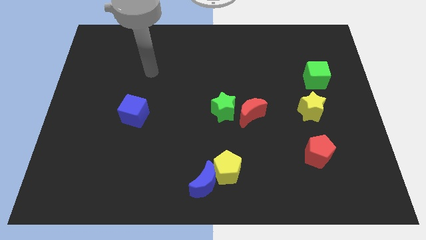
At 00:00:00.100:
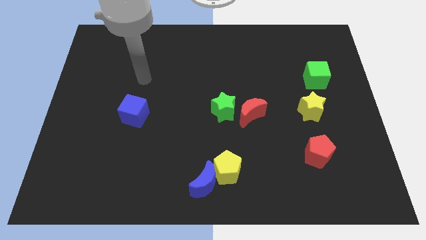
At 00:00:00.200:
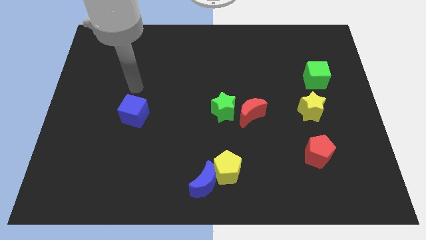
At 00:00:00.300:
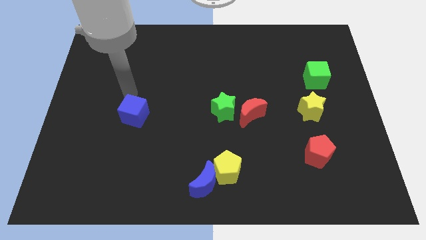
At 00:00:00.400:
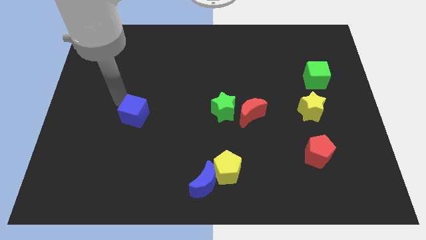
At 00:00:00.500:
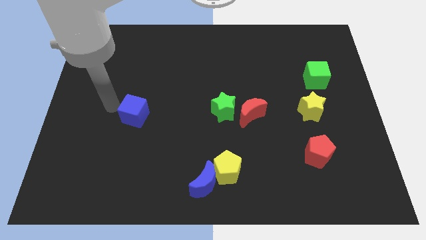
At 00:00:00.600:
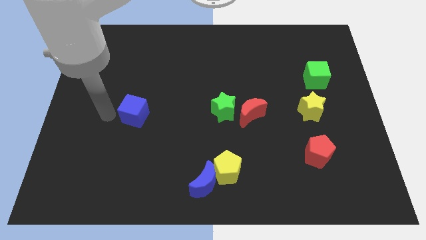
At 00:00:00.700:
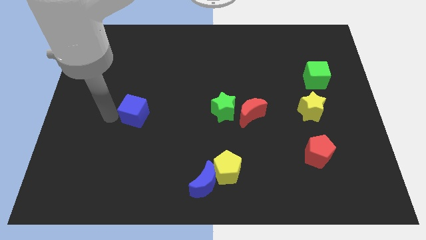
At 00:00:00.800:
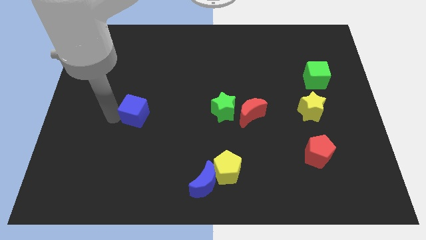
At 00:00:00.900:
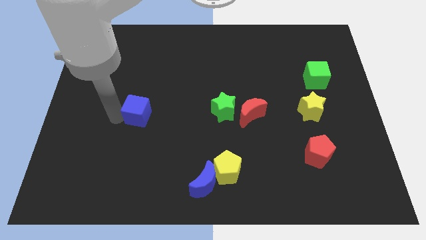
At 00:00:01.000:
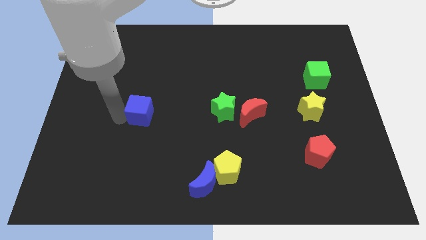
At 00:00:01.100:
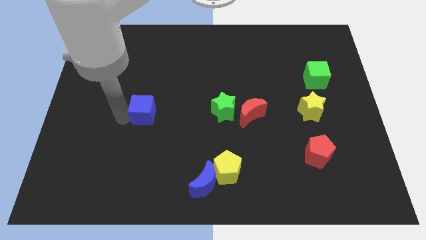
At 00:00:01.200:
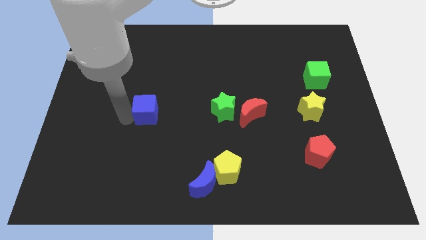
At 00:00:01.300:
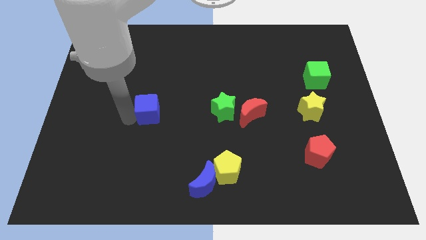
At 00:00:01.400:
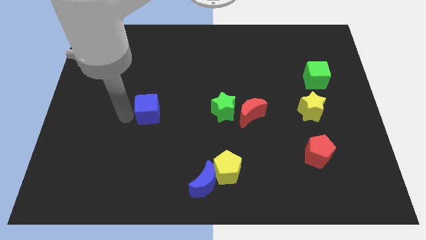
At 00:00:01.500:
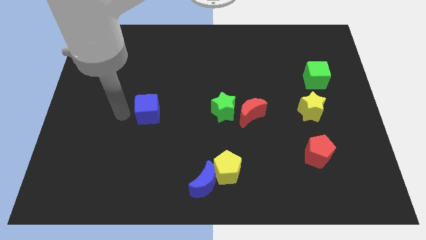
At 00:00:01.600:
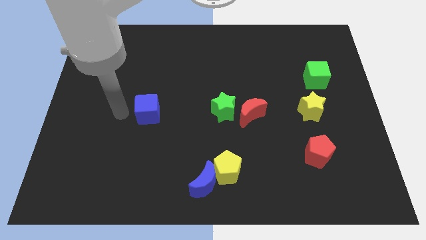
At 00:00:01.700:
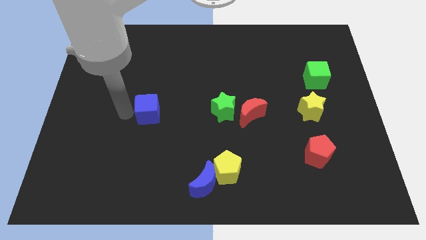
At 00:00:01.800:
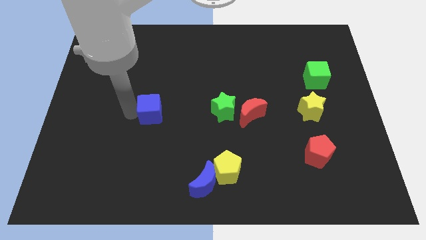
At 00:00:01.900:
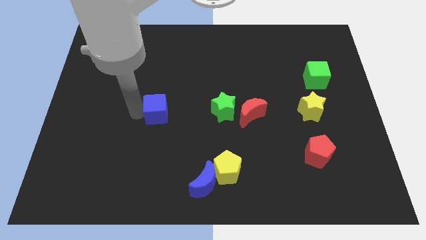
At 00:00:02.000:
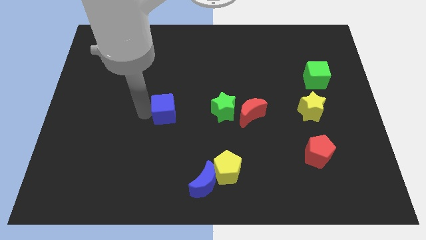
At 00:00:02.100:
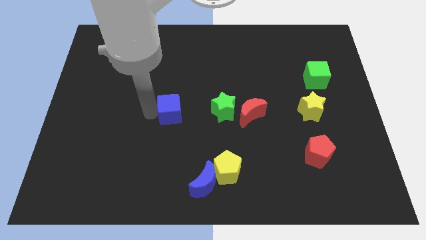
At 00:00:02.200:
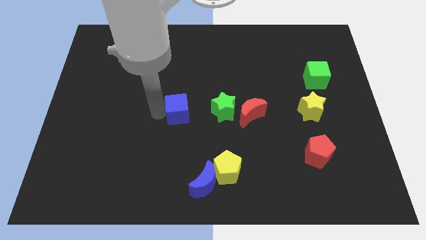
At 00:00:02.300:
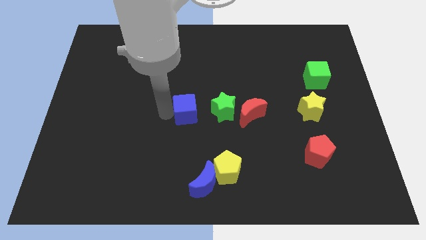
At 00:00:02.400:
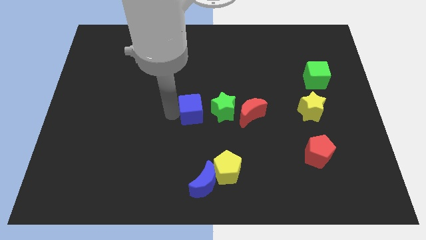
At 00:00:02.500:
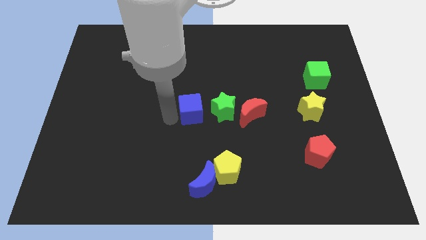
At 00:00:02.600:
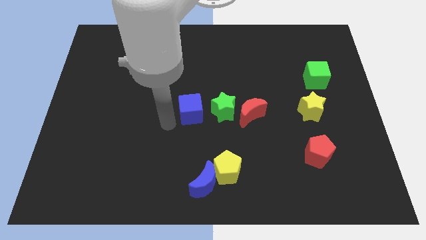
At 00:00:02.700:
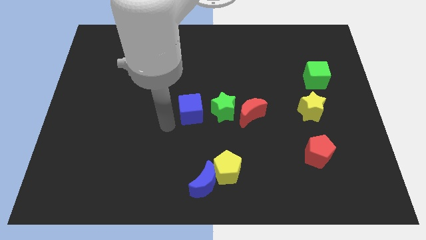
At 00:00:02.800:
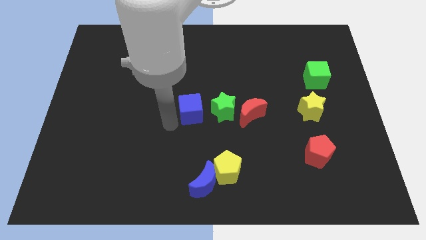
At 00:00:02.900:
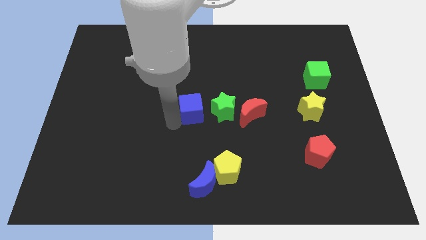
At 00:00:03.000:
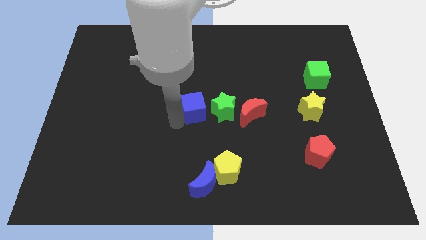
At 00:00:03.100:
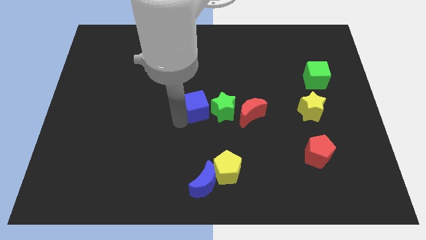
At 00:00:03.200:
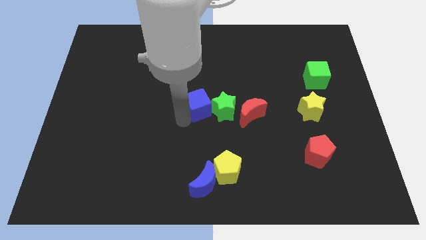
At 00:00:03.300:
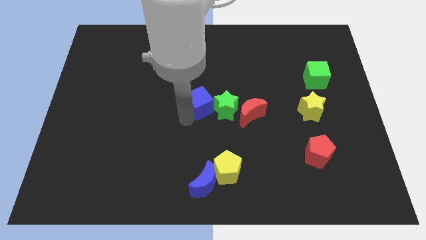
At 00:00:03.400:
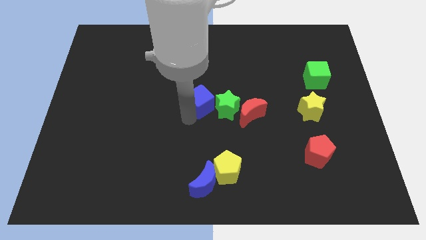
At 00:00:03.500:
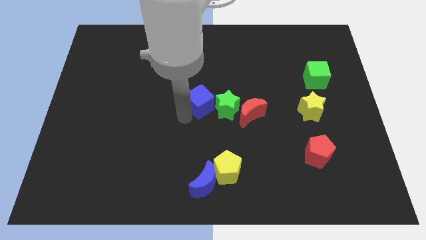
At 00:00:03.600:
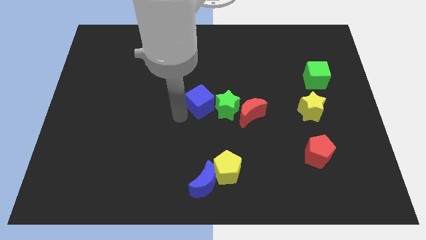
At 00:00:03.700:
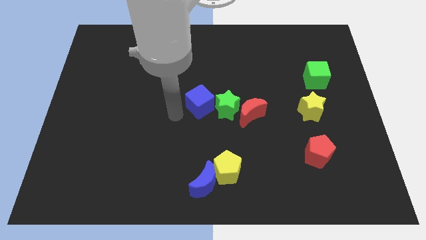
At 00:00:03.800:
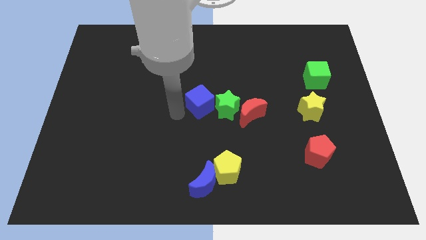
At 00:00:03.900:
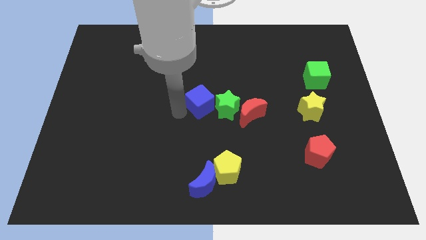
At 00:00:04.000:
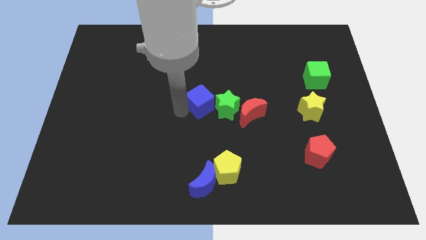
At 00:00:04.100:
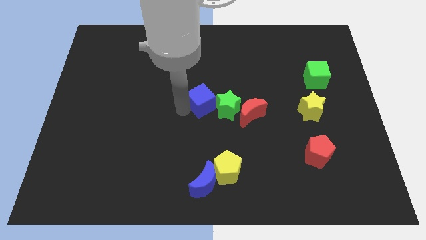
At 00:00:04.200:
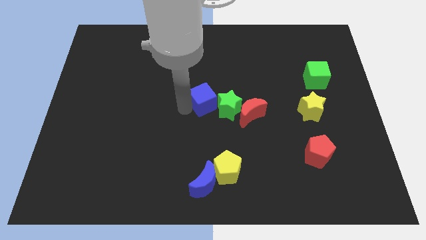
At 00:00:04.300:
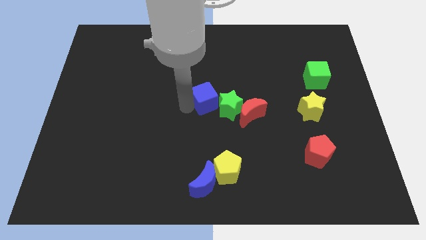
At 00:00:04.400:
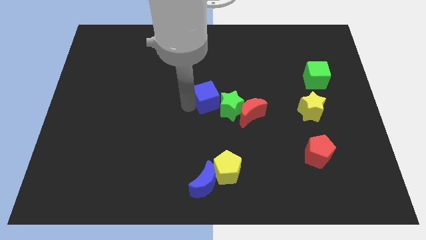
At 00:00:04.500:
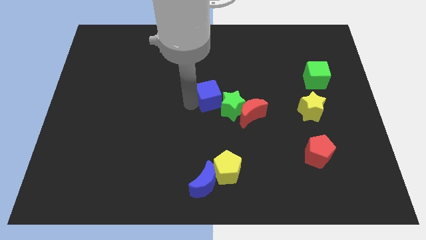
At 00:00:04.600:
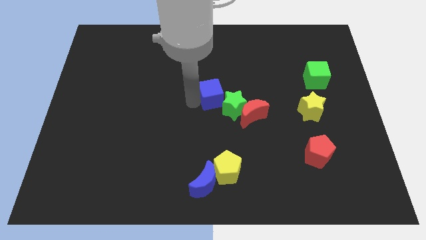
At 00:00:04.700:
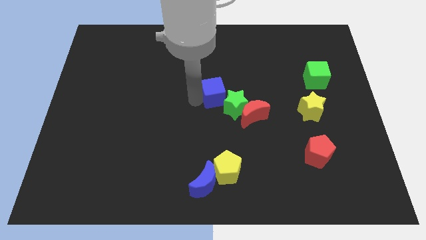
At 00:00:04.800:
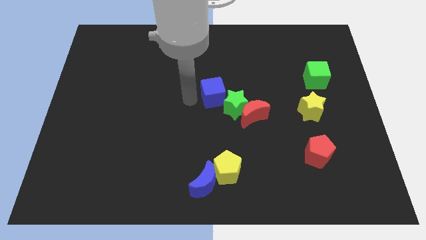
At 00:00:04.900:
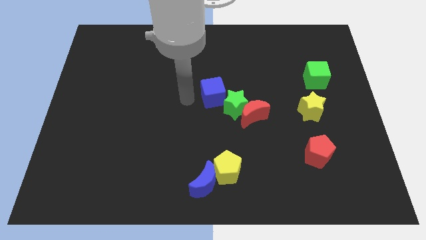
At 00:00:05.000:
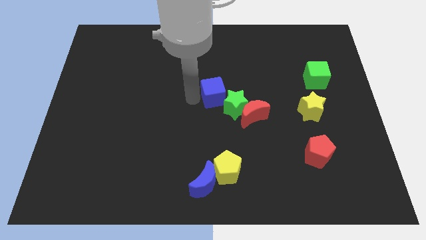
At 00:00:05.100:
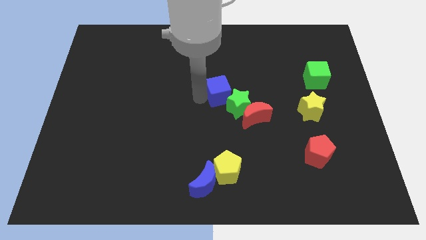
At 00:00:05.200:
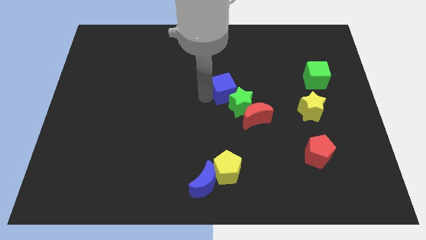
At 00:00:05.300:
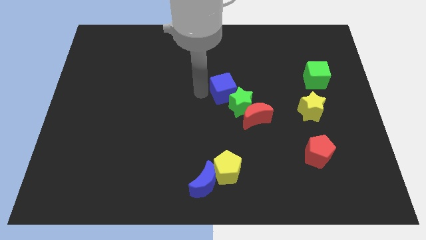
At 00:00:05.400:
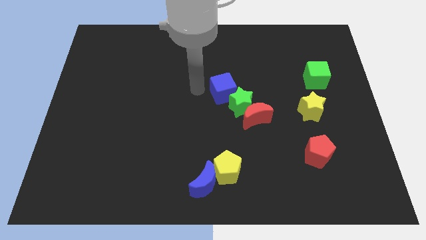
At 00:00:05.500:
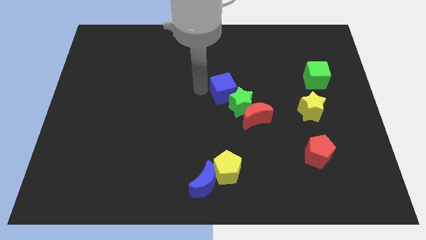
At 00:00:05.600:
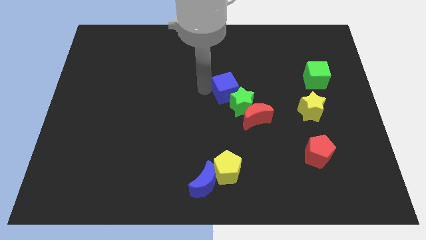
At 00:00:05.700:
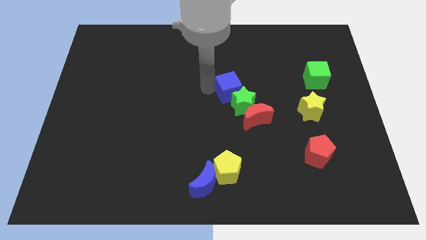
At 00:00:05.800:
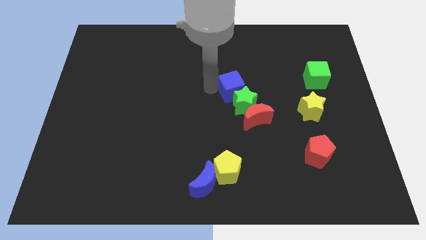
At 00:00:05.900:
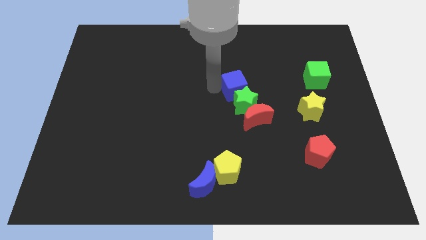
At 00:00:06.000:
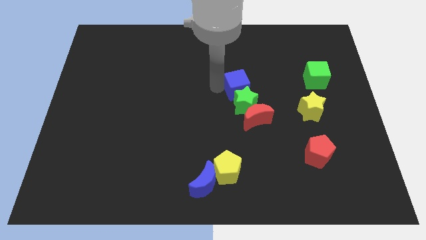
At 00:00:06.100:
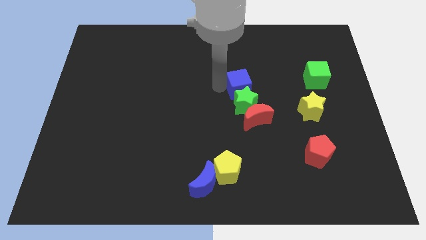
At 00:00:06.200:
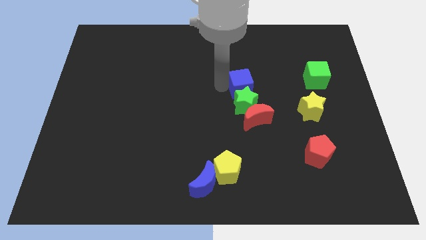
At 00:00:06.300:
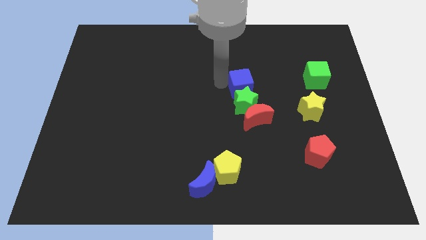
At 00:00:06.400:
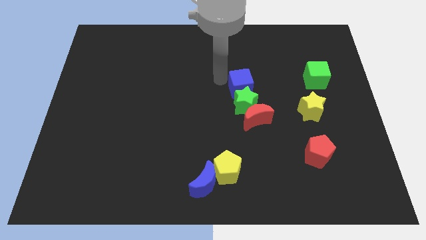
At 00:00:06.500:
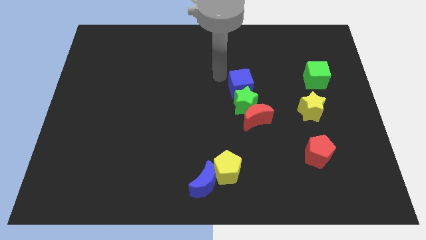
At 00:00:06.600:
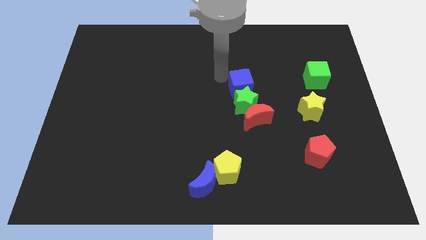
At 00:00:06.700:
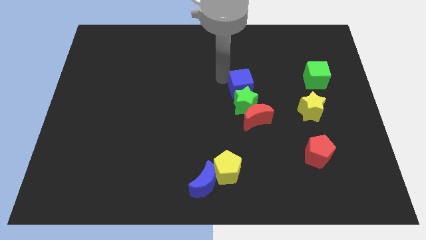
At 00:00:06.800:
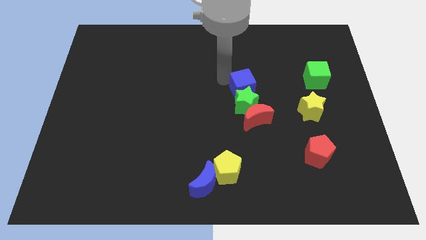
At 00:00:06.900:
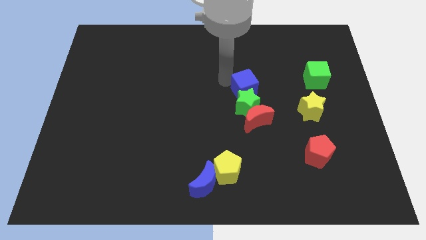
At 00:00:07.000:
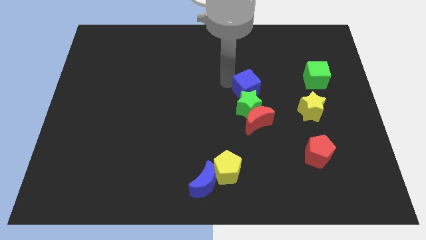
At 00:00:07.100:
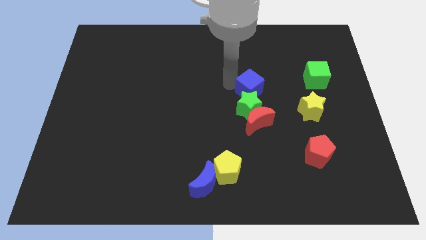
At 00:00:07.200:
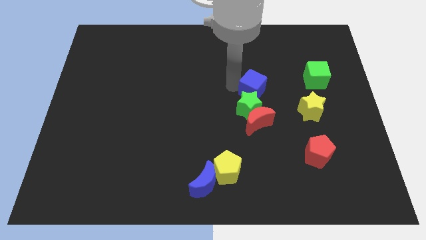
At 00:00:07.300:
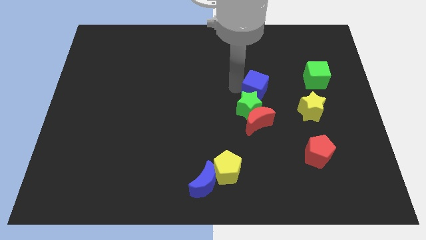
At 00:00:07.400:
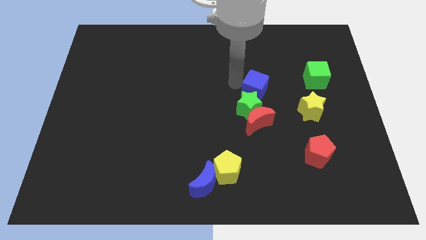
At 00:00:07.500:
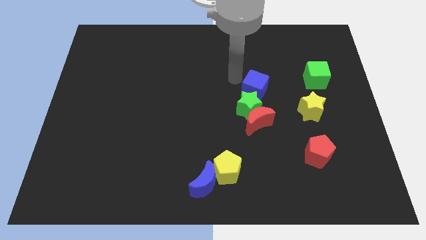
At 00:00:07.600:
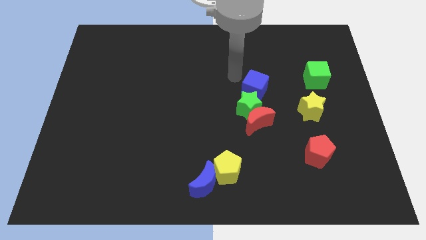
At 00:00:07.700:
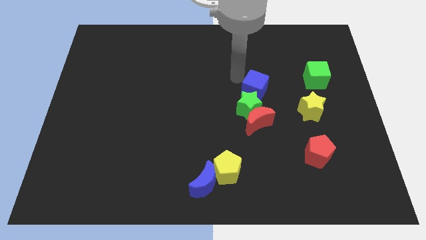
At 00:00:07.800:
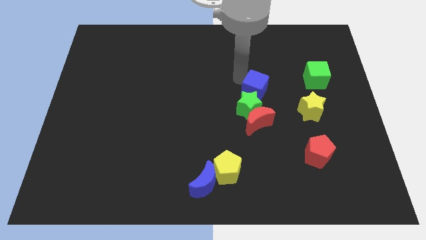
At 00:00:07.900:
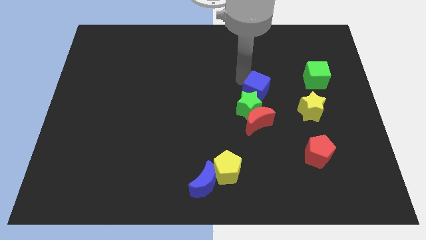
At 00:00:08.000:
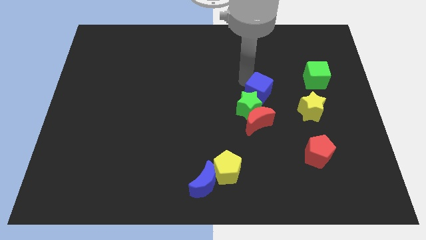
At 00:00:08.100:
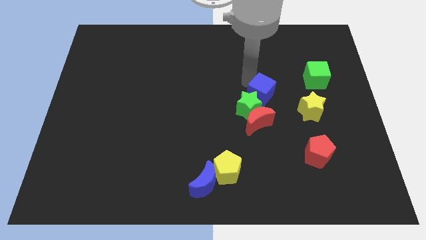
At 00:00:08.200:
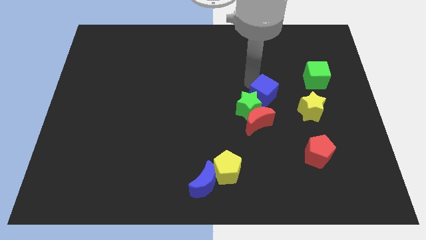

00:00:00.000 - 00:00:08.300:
move the blue cube diagonally up and to the right of the red moon
